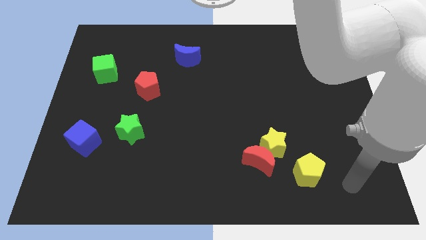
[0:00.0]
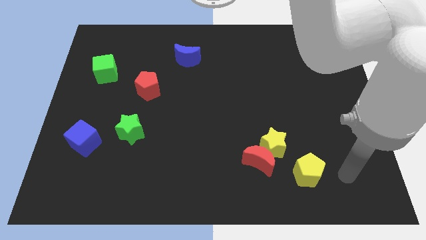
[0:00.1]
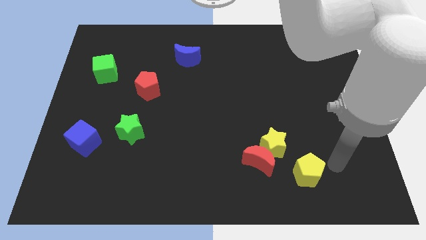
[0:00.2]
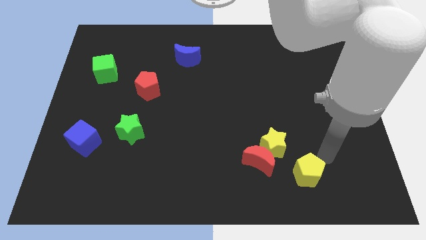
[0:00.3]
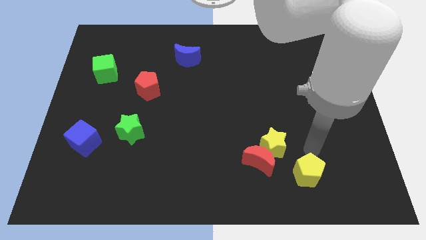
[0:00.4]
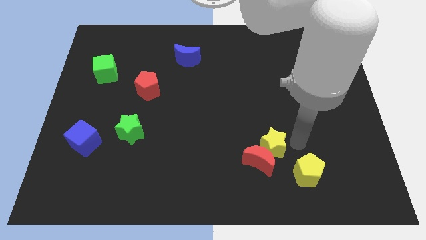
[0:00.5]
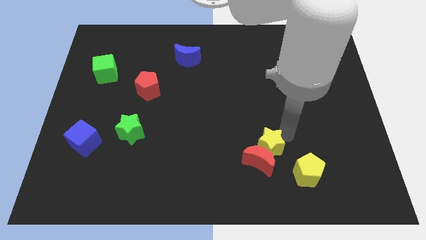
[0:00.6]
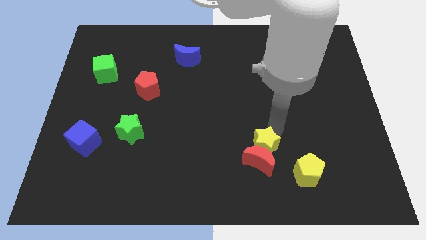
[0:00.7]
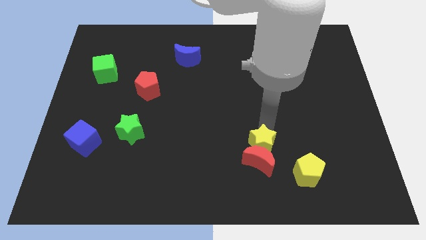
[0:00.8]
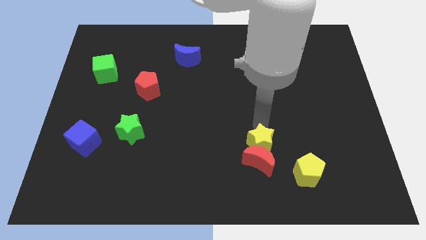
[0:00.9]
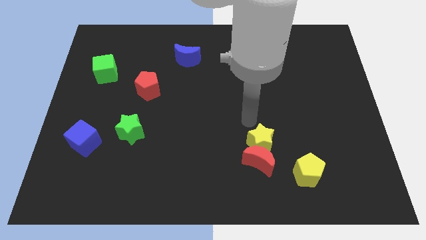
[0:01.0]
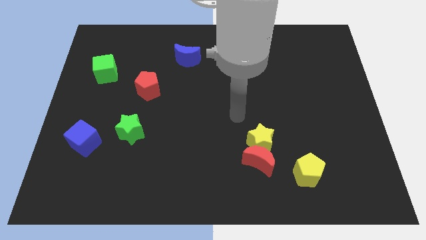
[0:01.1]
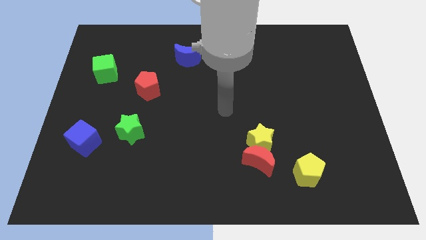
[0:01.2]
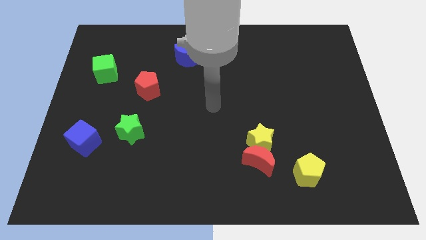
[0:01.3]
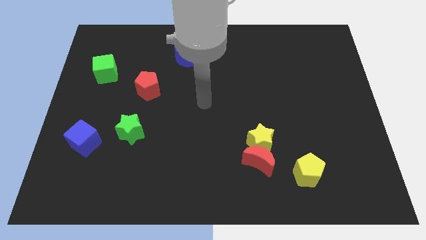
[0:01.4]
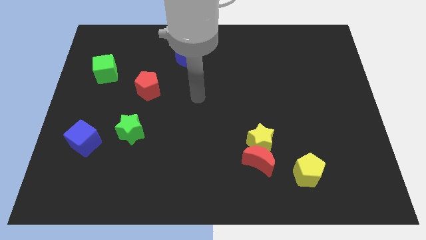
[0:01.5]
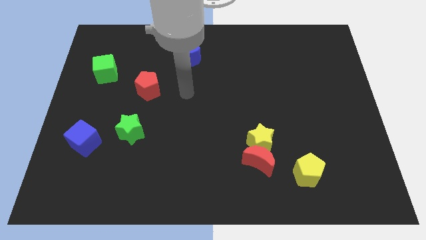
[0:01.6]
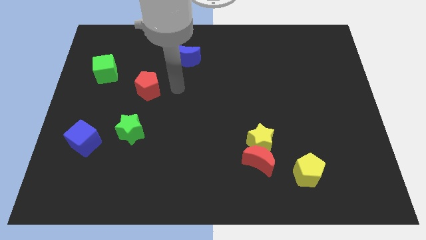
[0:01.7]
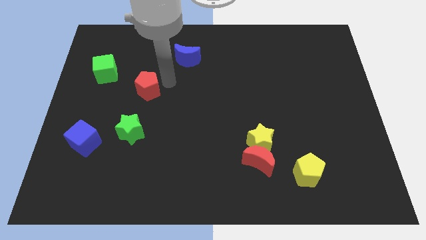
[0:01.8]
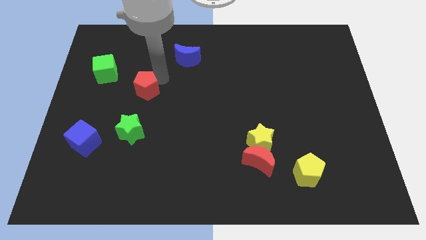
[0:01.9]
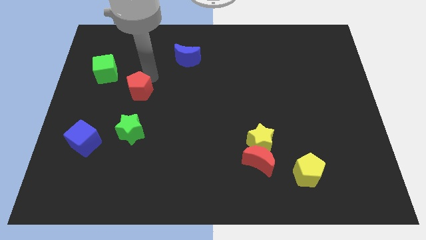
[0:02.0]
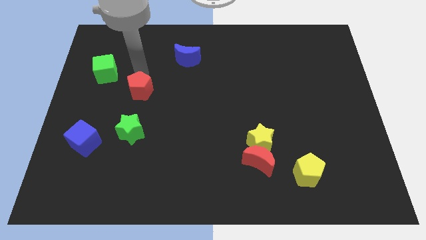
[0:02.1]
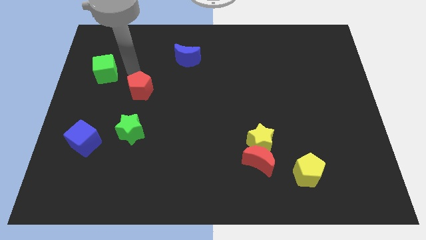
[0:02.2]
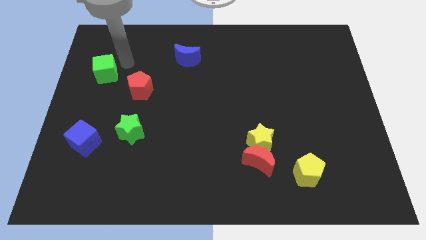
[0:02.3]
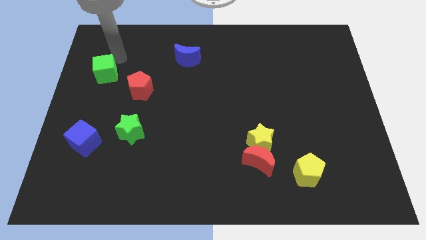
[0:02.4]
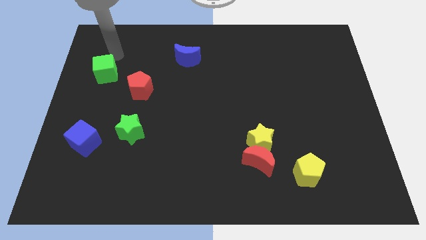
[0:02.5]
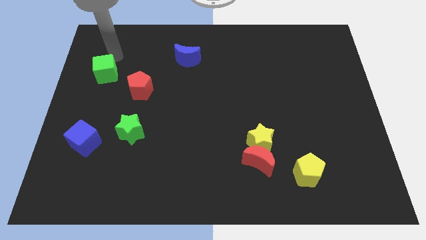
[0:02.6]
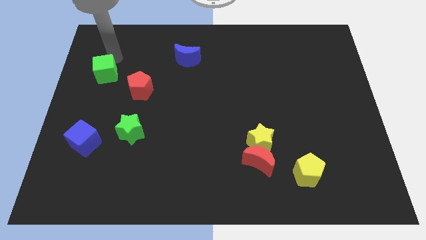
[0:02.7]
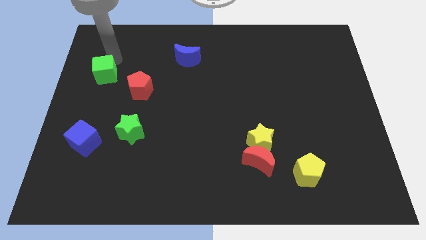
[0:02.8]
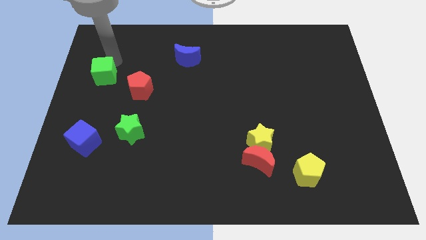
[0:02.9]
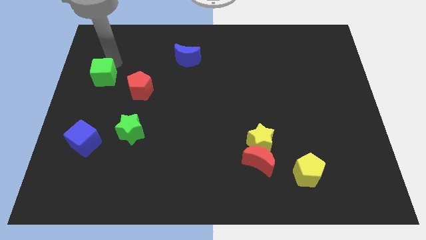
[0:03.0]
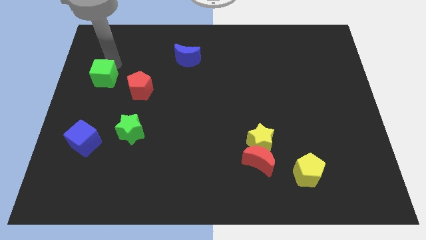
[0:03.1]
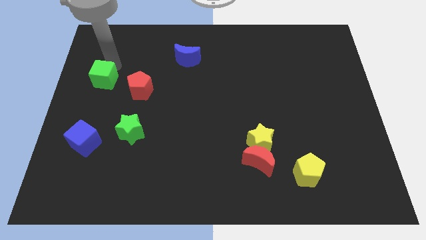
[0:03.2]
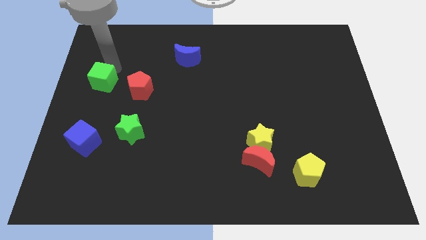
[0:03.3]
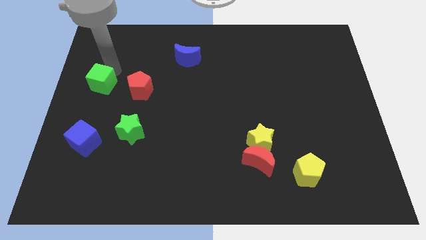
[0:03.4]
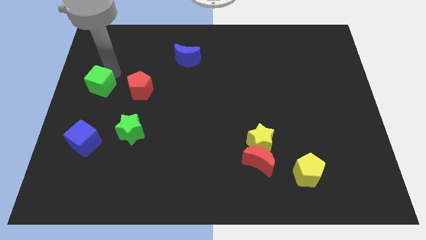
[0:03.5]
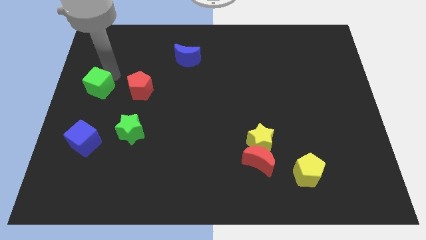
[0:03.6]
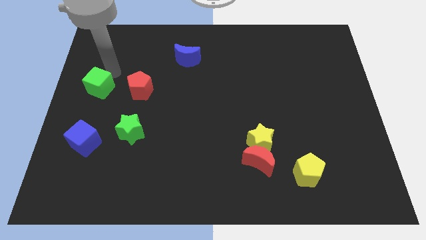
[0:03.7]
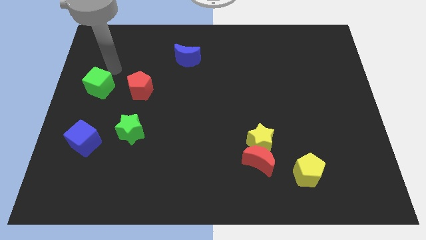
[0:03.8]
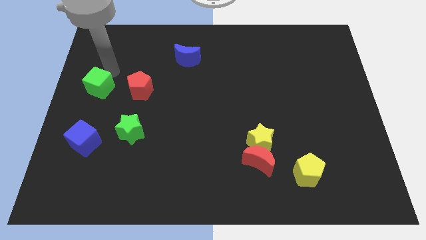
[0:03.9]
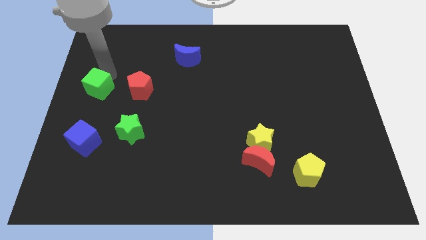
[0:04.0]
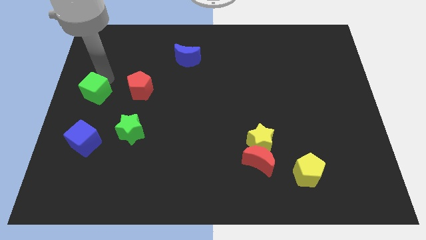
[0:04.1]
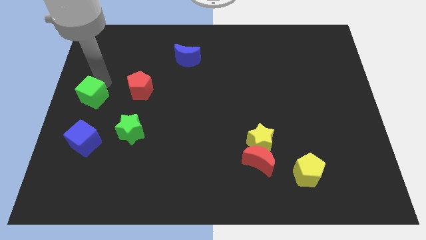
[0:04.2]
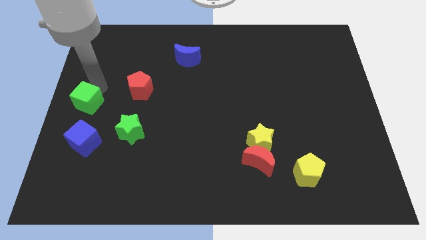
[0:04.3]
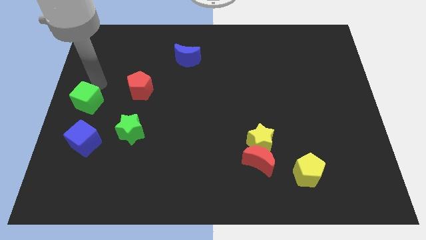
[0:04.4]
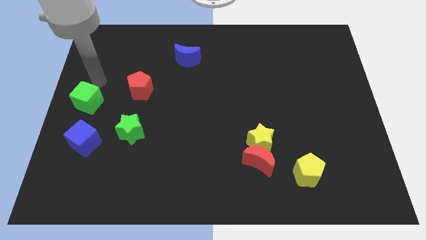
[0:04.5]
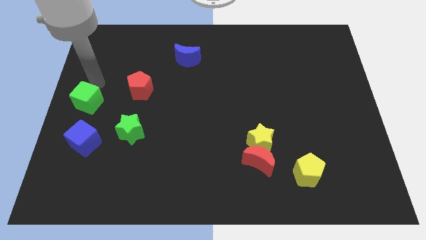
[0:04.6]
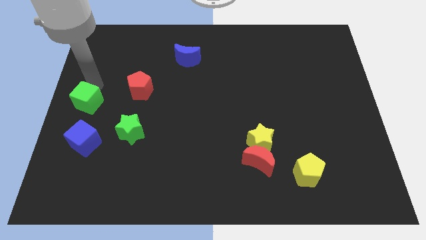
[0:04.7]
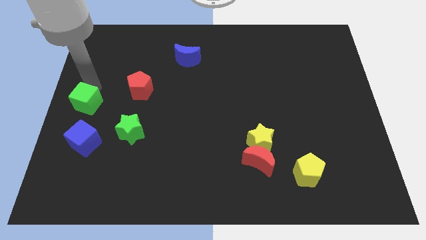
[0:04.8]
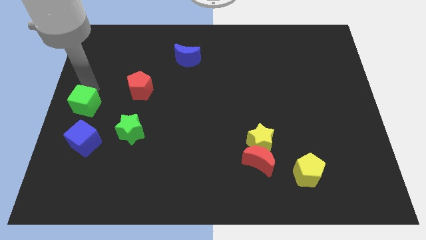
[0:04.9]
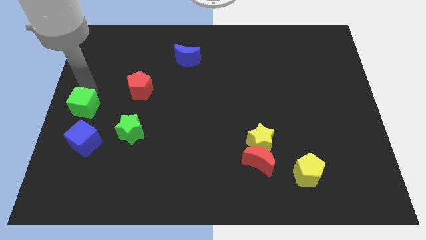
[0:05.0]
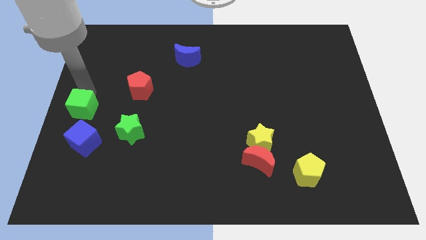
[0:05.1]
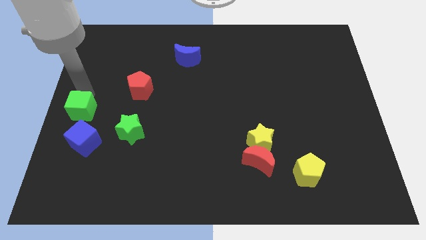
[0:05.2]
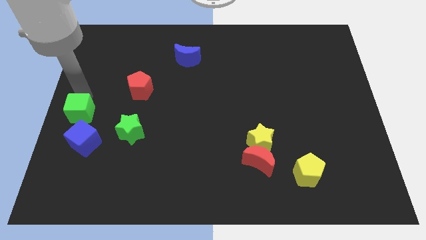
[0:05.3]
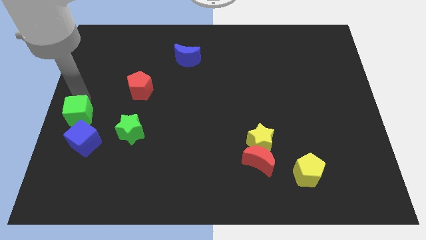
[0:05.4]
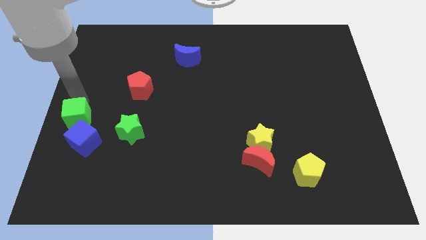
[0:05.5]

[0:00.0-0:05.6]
put the green cube to the left of the green star

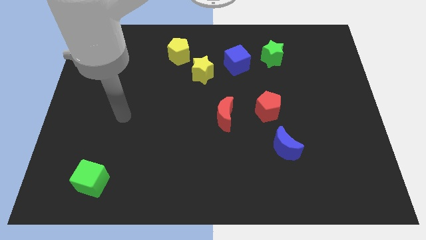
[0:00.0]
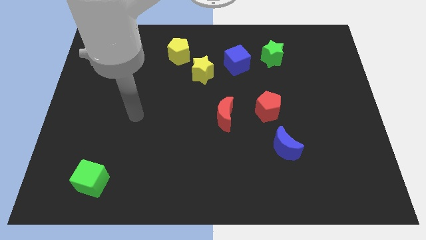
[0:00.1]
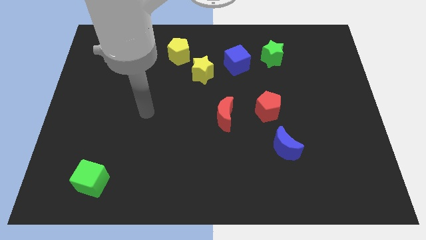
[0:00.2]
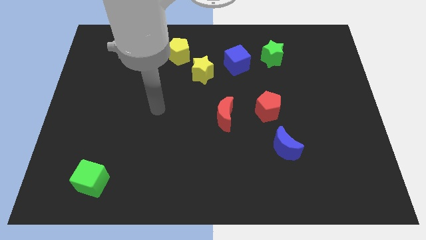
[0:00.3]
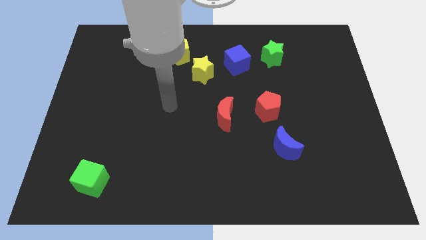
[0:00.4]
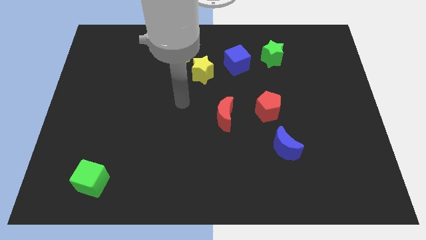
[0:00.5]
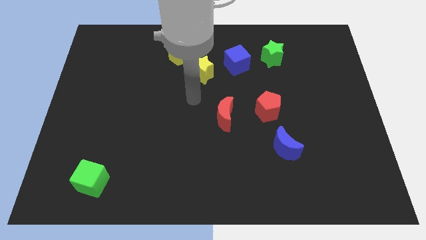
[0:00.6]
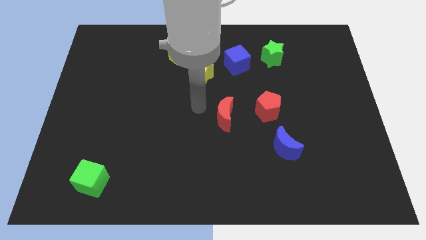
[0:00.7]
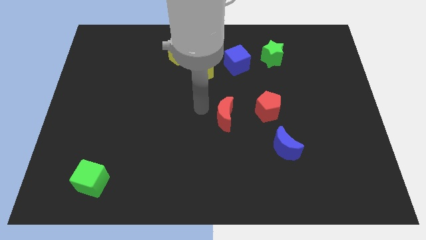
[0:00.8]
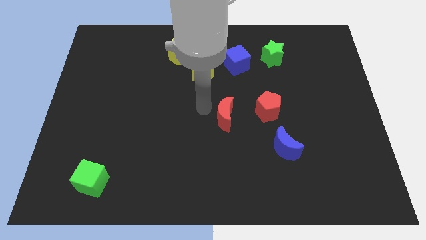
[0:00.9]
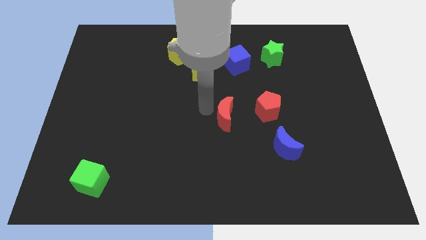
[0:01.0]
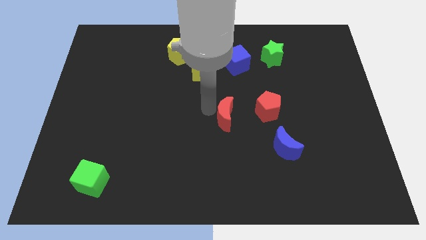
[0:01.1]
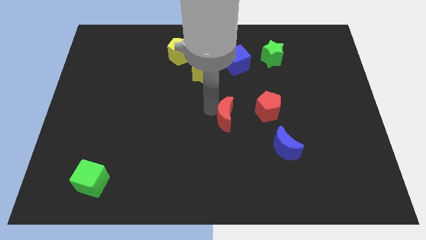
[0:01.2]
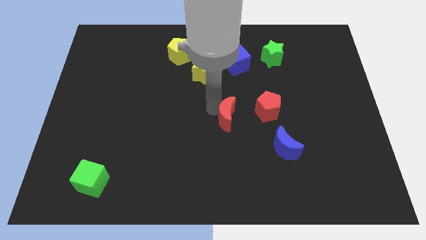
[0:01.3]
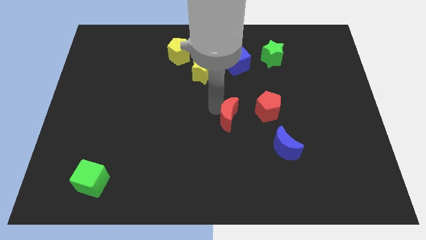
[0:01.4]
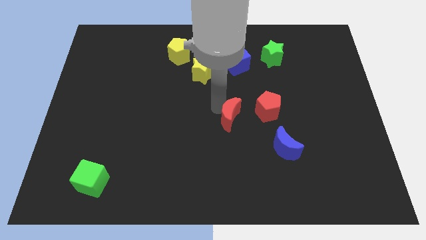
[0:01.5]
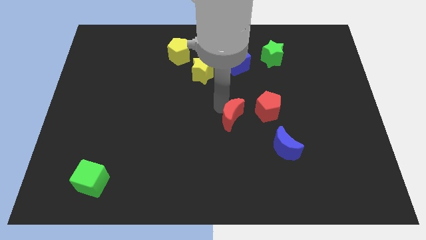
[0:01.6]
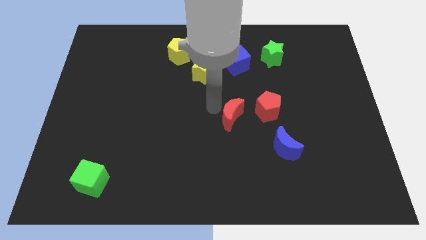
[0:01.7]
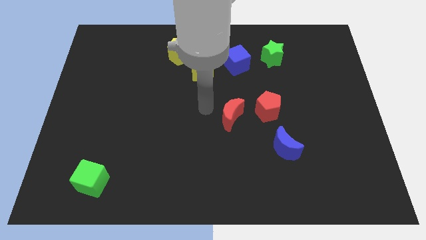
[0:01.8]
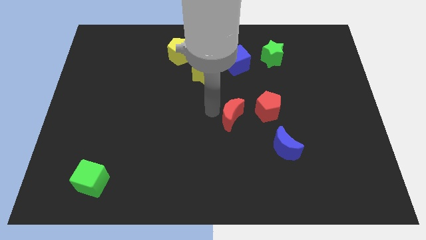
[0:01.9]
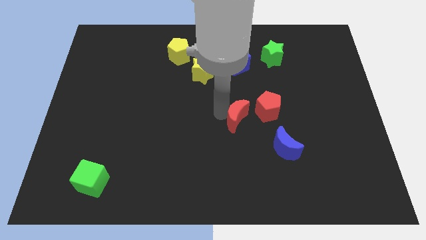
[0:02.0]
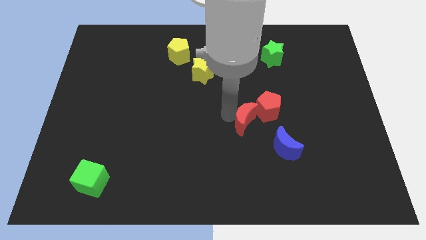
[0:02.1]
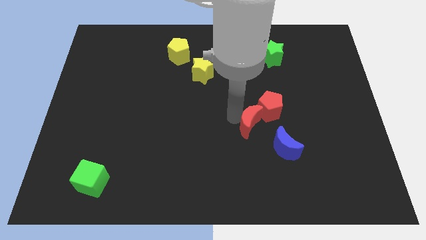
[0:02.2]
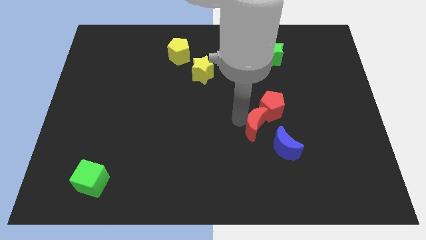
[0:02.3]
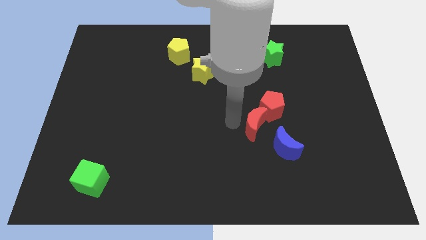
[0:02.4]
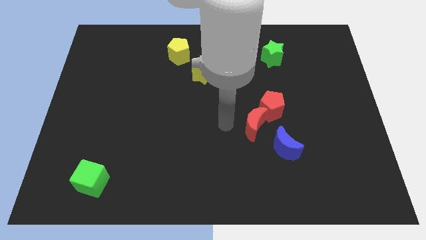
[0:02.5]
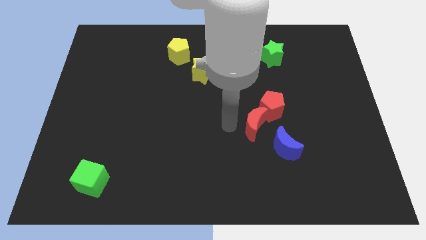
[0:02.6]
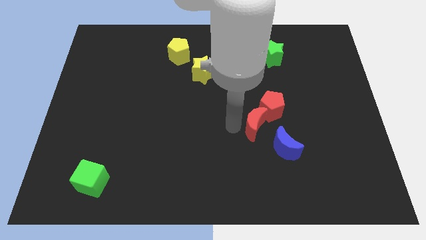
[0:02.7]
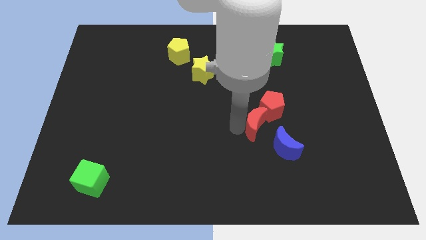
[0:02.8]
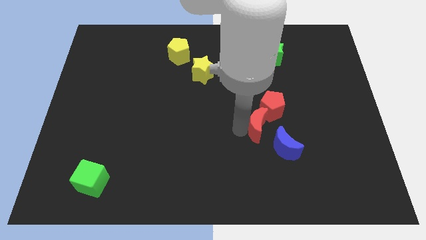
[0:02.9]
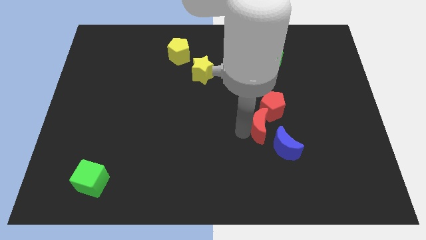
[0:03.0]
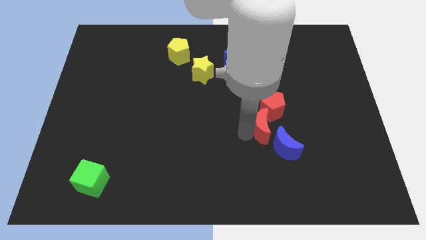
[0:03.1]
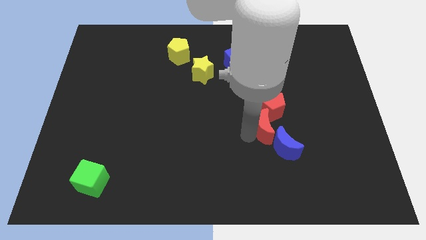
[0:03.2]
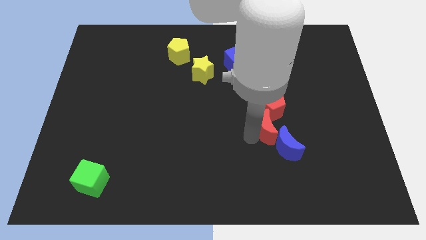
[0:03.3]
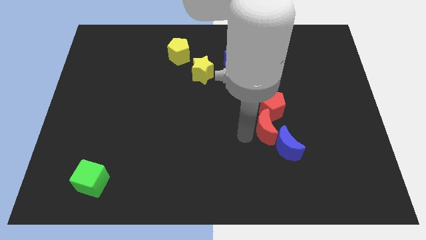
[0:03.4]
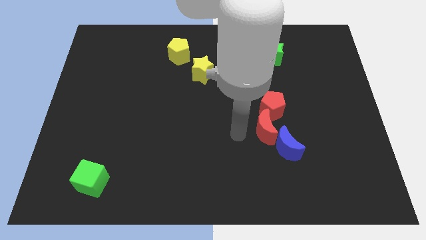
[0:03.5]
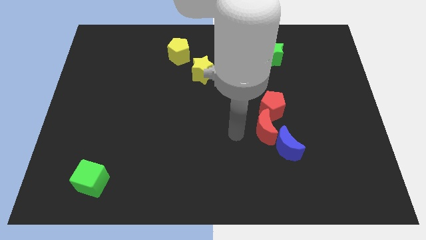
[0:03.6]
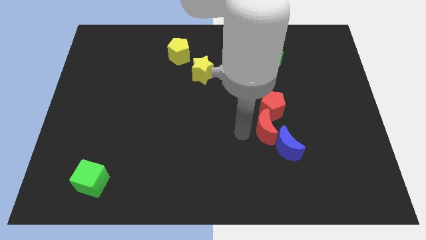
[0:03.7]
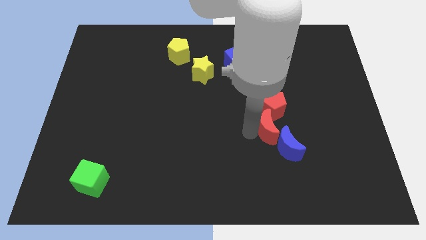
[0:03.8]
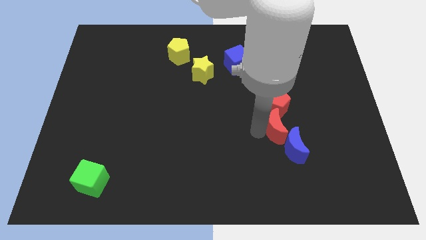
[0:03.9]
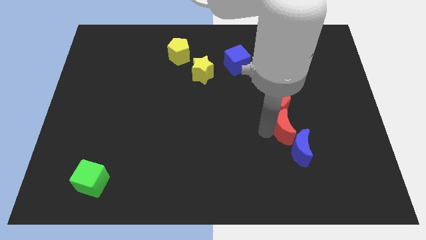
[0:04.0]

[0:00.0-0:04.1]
push the red moon to the bottom right side of the red pentagon
